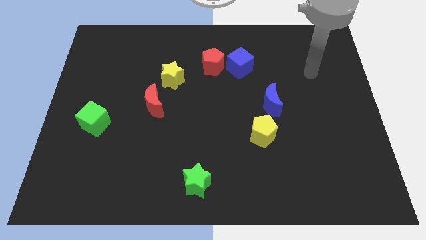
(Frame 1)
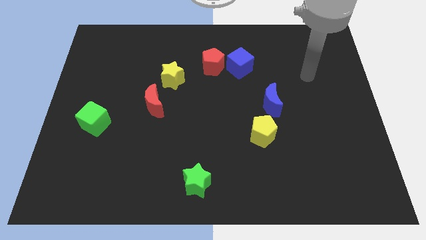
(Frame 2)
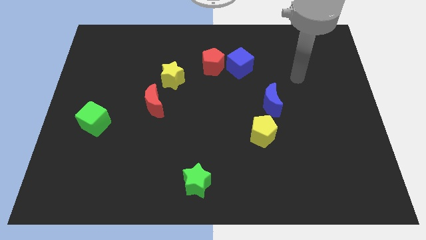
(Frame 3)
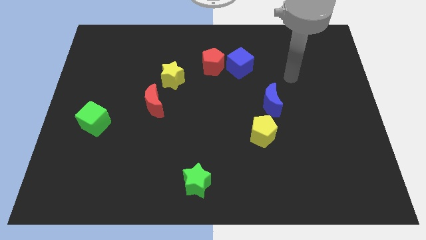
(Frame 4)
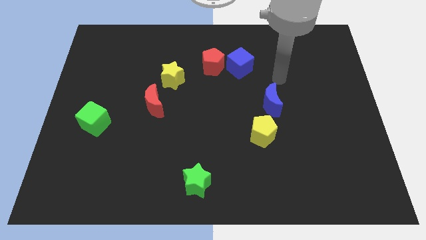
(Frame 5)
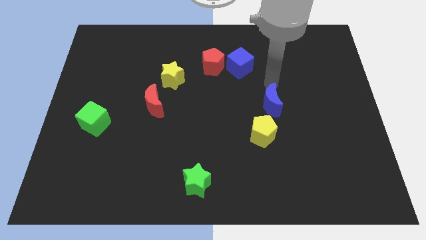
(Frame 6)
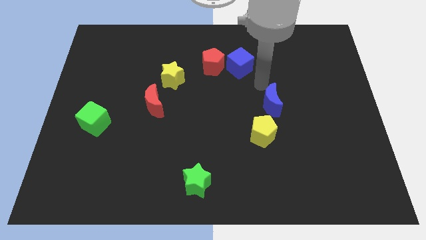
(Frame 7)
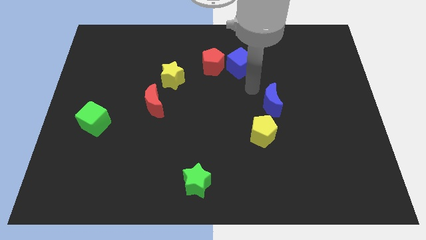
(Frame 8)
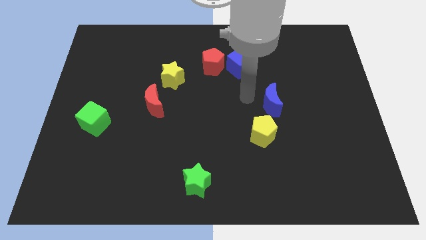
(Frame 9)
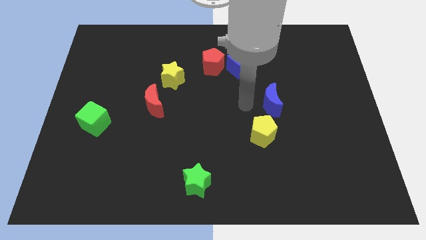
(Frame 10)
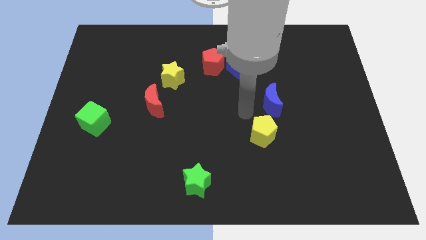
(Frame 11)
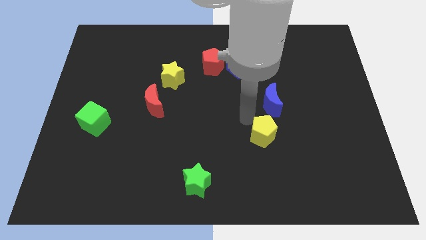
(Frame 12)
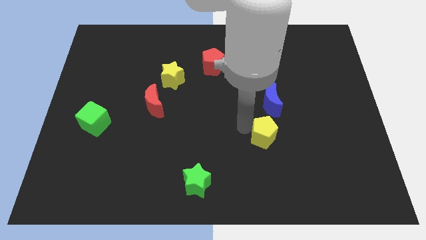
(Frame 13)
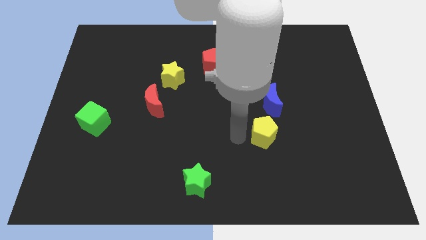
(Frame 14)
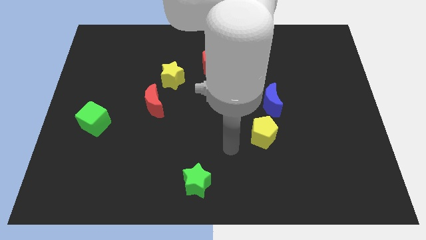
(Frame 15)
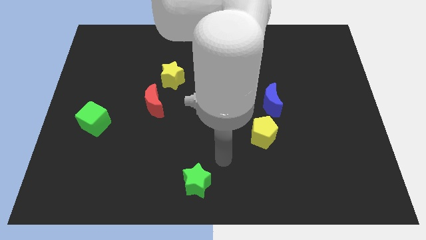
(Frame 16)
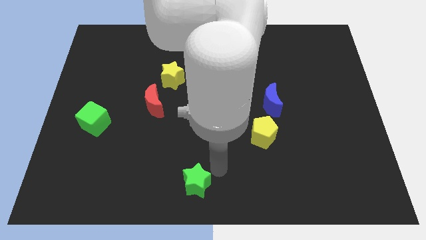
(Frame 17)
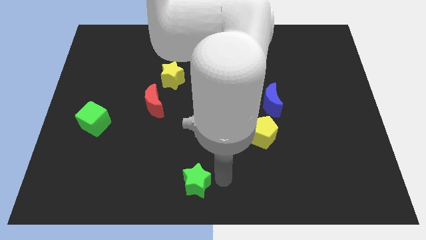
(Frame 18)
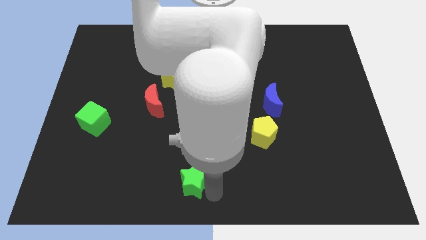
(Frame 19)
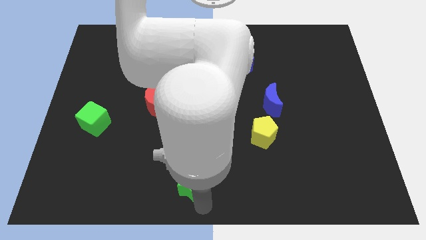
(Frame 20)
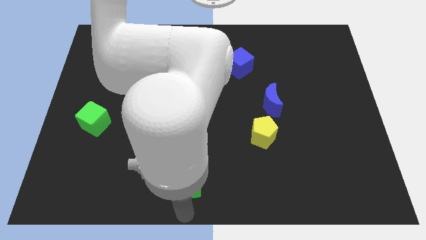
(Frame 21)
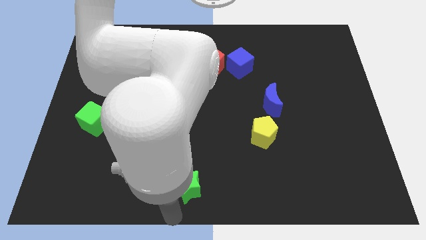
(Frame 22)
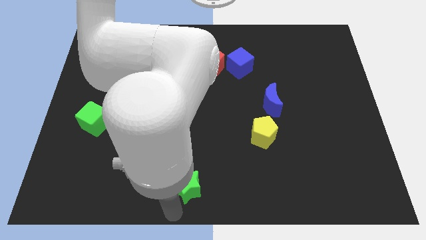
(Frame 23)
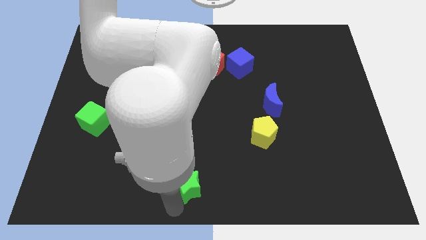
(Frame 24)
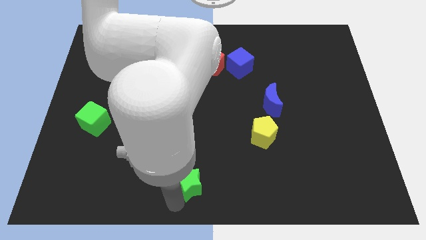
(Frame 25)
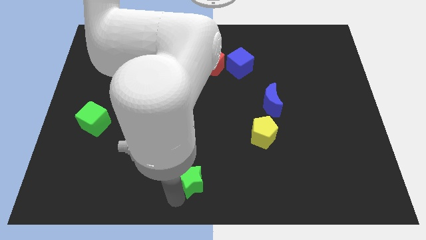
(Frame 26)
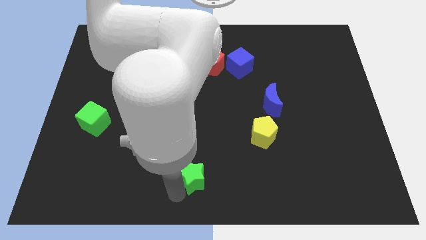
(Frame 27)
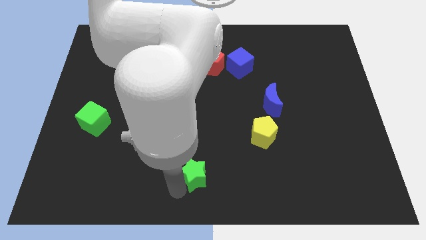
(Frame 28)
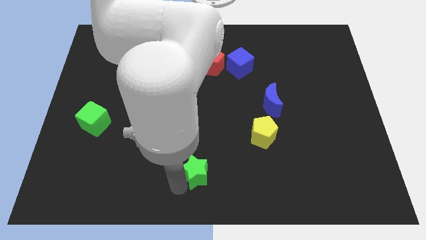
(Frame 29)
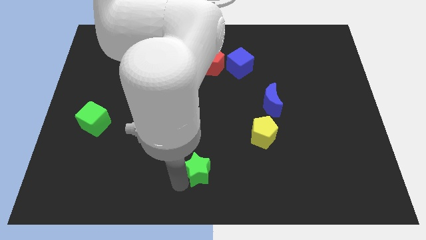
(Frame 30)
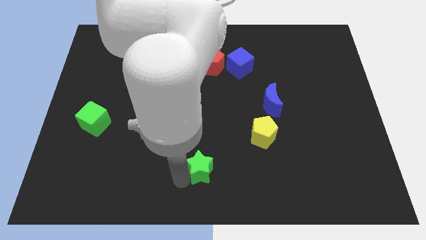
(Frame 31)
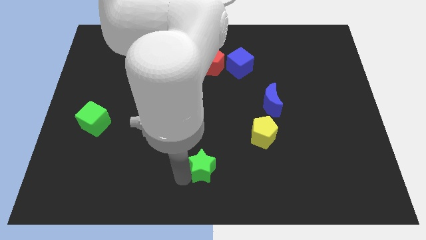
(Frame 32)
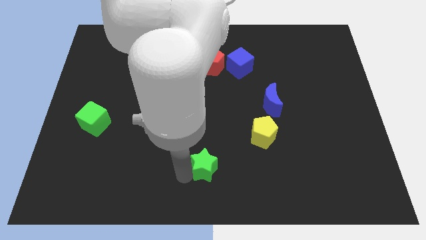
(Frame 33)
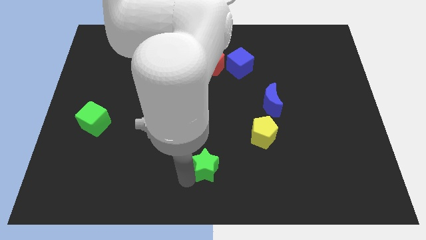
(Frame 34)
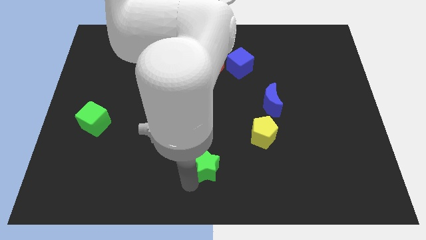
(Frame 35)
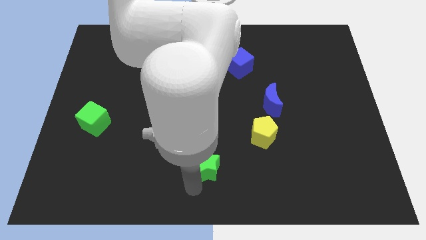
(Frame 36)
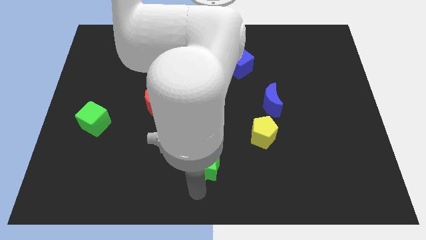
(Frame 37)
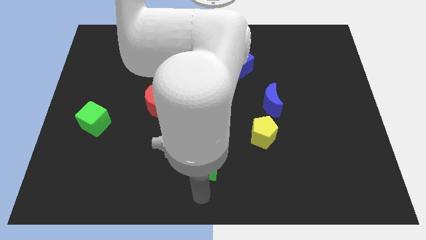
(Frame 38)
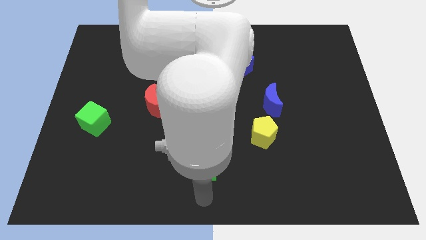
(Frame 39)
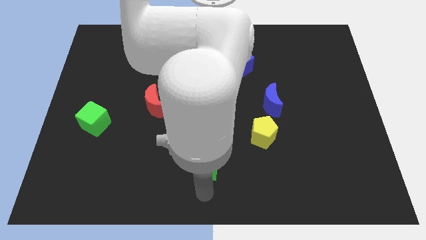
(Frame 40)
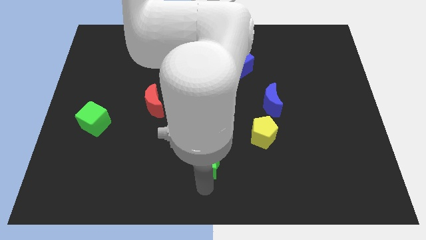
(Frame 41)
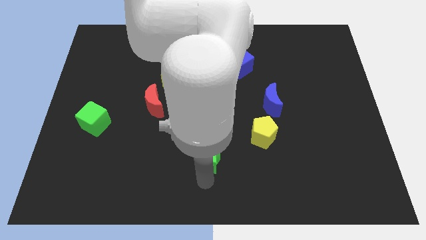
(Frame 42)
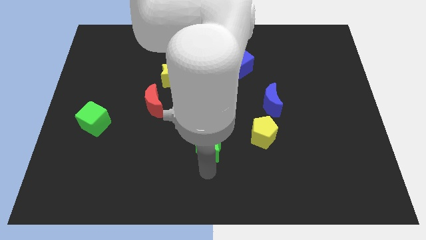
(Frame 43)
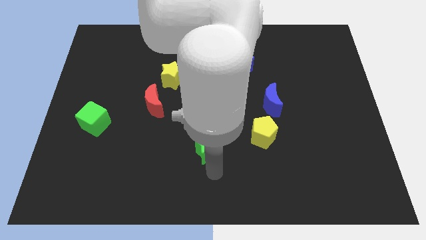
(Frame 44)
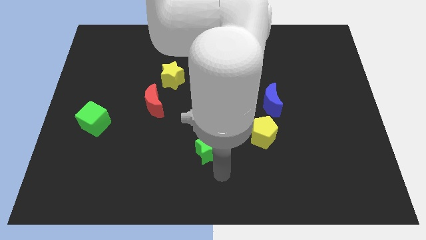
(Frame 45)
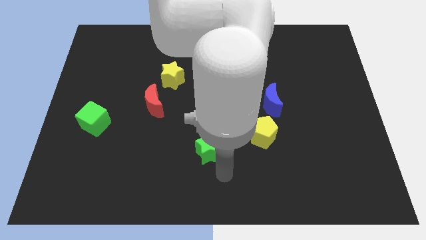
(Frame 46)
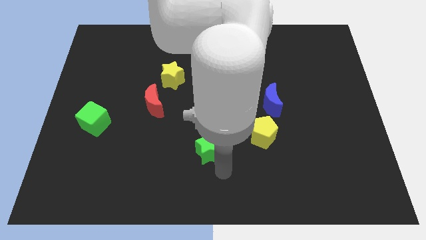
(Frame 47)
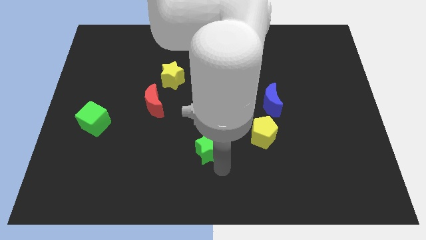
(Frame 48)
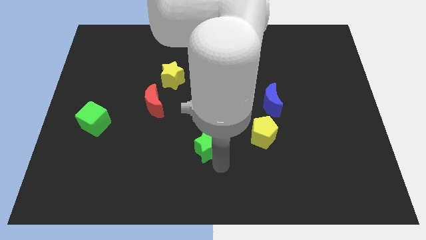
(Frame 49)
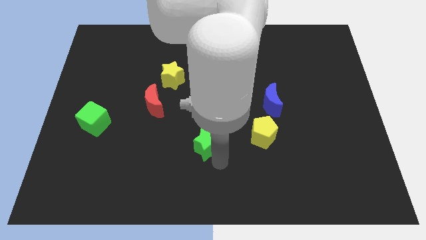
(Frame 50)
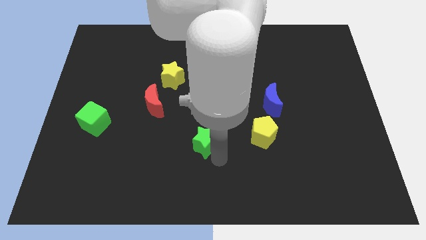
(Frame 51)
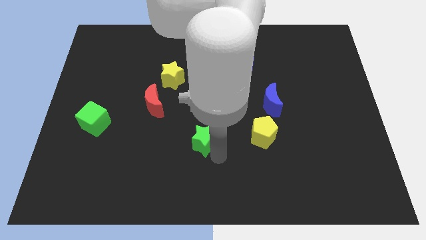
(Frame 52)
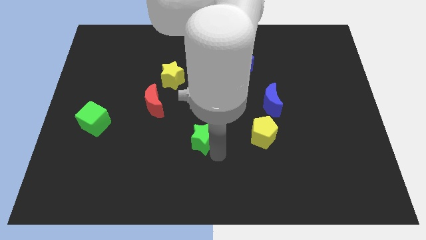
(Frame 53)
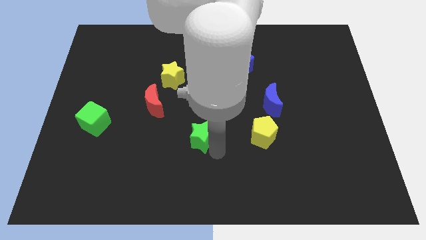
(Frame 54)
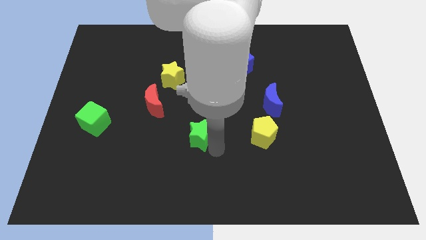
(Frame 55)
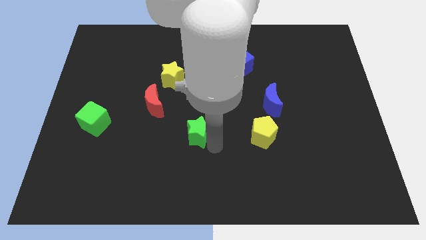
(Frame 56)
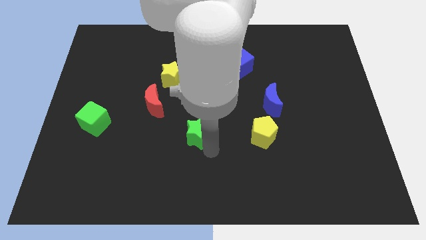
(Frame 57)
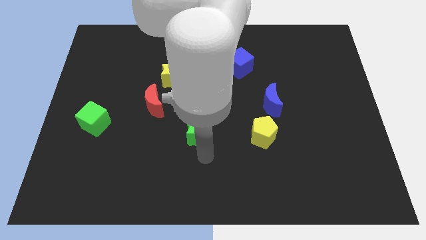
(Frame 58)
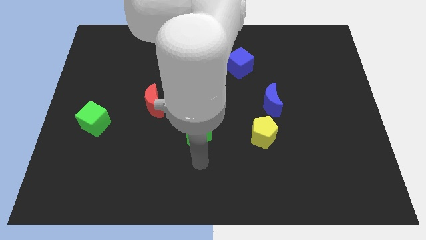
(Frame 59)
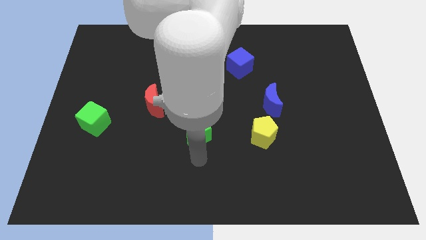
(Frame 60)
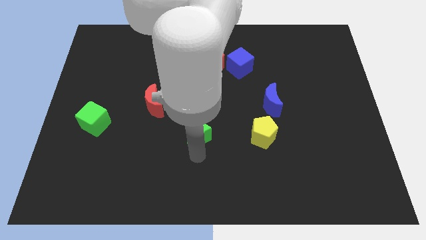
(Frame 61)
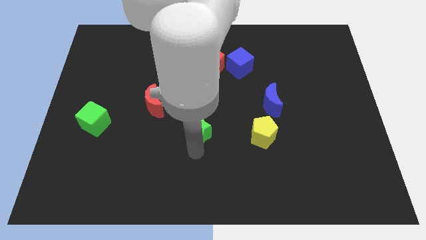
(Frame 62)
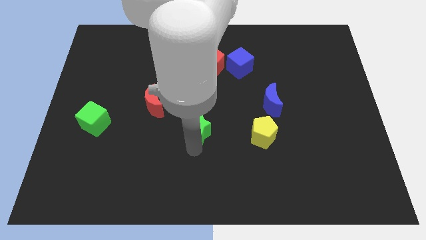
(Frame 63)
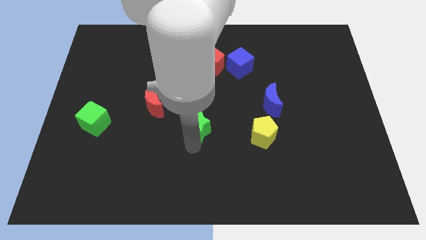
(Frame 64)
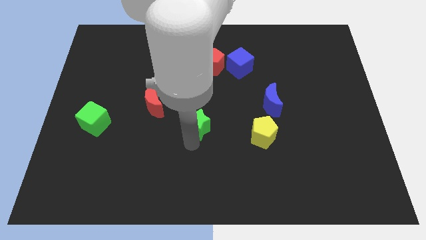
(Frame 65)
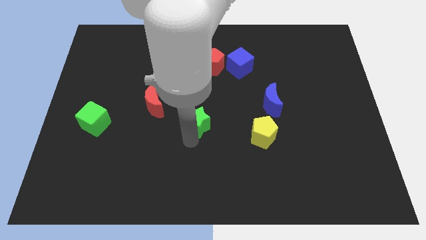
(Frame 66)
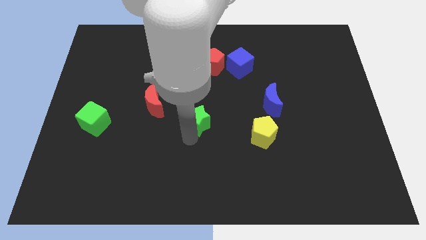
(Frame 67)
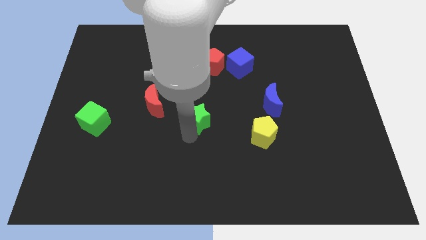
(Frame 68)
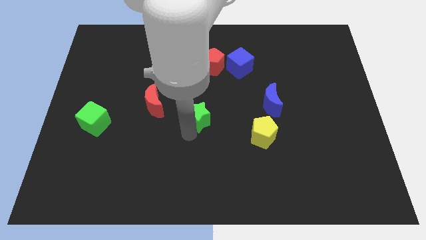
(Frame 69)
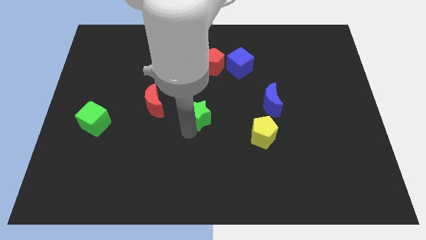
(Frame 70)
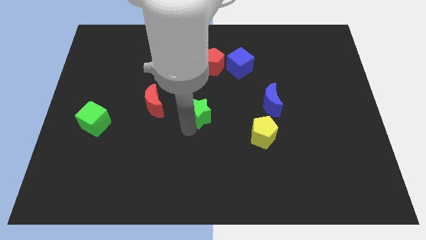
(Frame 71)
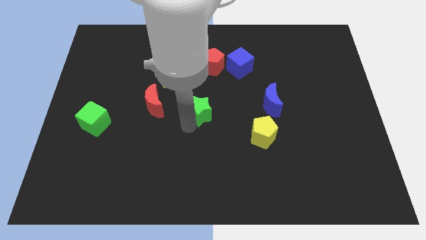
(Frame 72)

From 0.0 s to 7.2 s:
move the green star to the bottom right of the yellow star

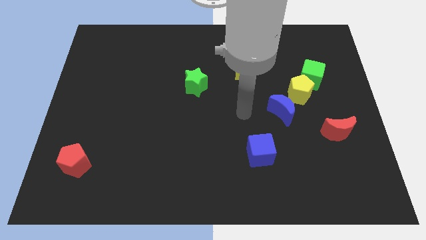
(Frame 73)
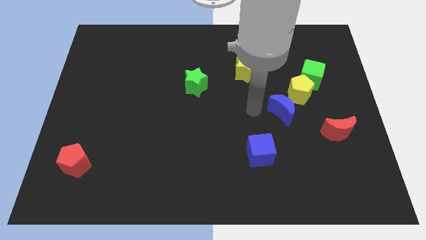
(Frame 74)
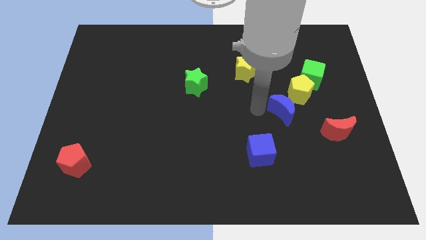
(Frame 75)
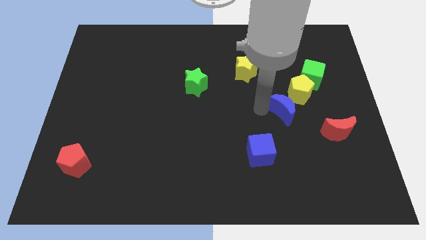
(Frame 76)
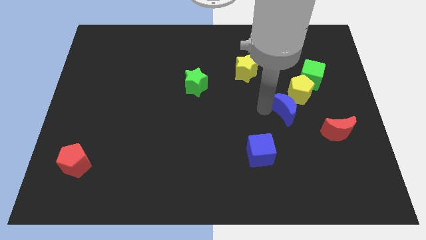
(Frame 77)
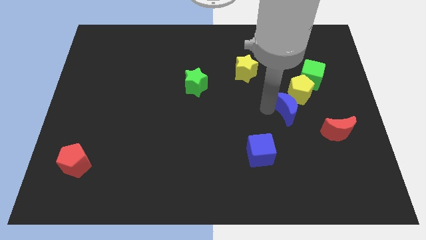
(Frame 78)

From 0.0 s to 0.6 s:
push the blue moon diagonally up and to the left of the red moon
